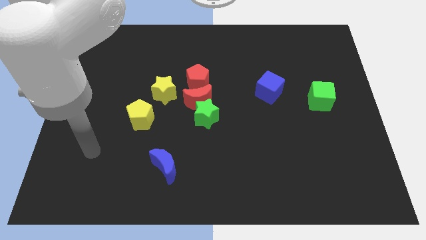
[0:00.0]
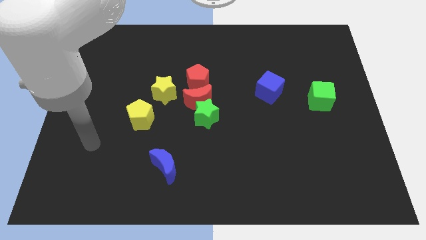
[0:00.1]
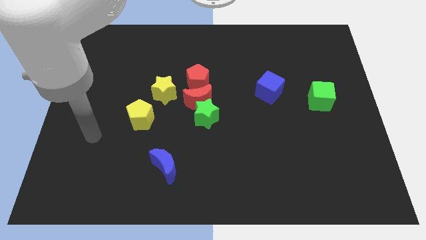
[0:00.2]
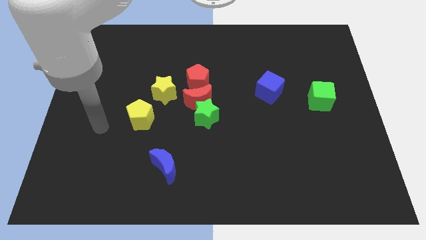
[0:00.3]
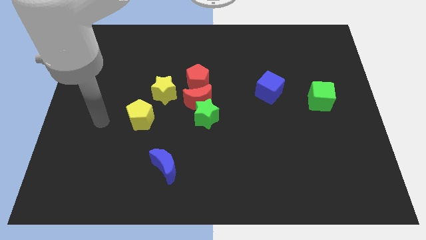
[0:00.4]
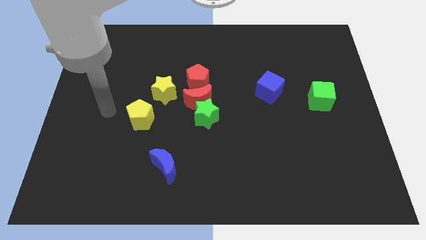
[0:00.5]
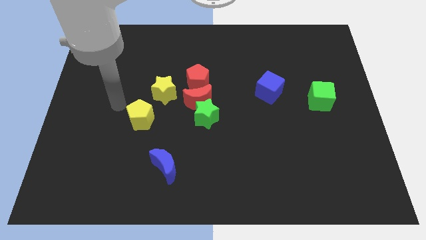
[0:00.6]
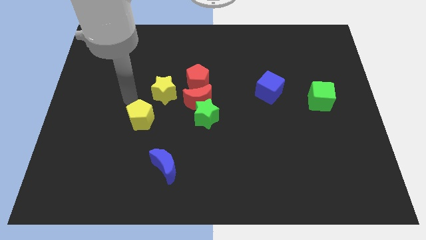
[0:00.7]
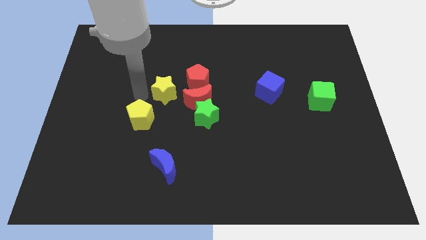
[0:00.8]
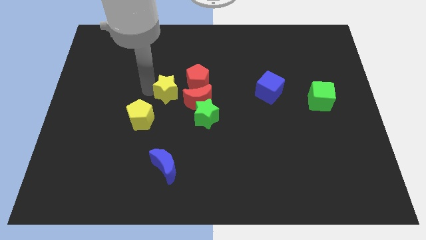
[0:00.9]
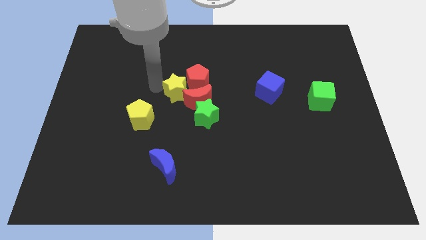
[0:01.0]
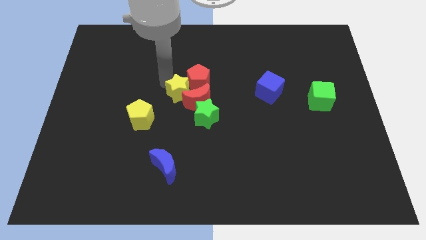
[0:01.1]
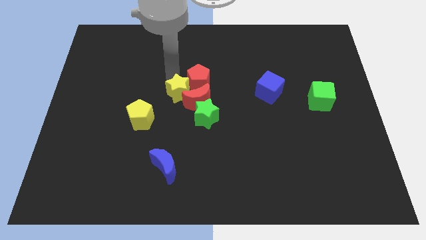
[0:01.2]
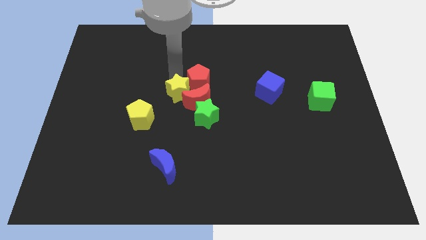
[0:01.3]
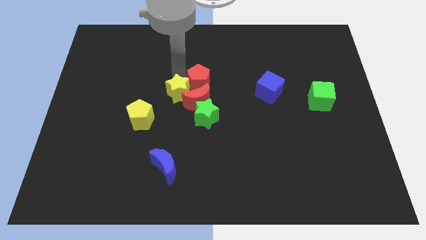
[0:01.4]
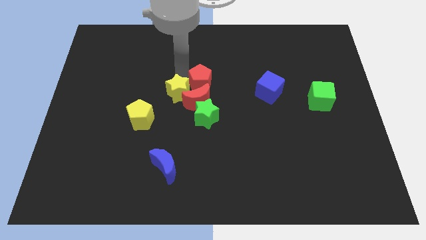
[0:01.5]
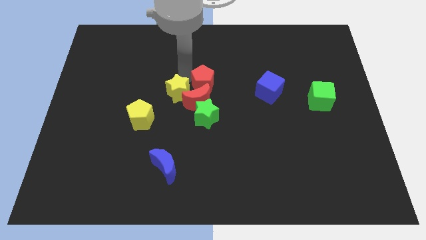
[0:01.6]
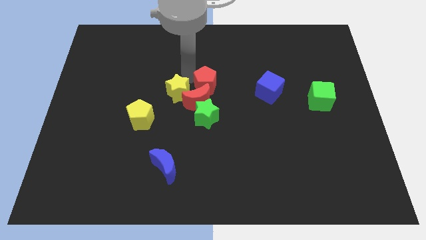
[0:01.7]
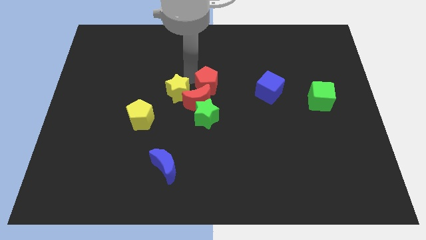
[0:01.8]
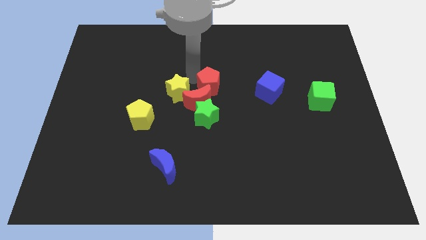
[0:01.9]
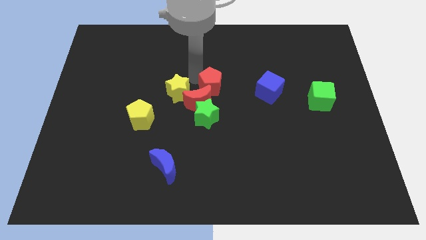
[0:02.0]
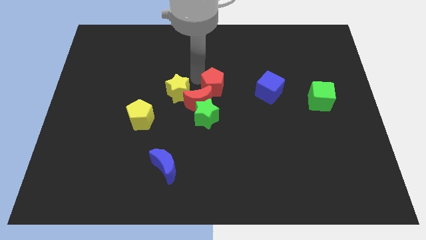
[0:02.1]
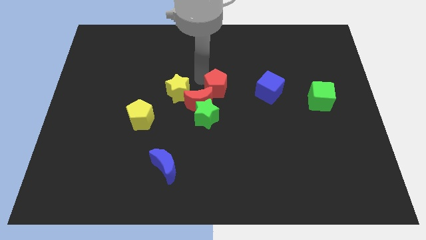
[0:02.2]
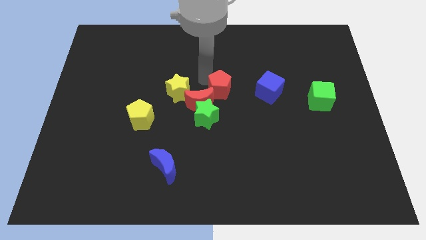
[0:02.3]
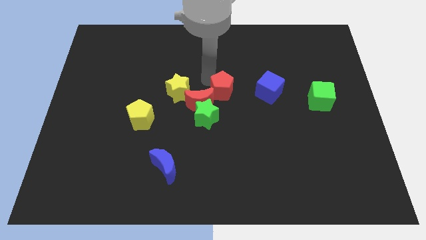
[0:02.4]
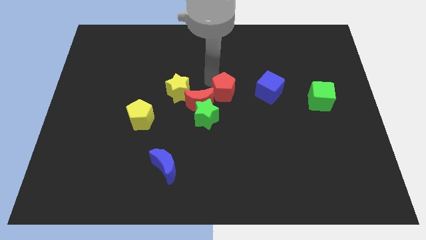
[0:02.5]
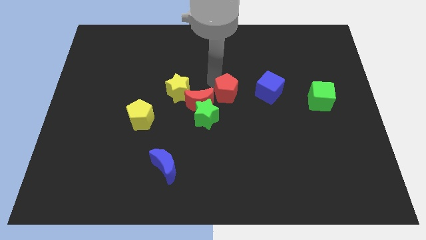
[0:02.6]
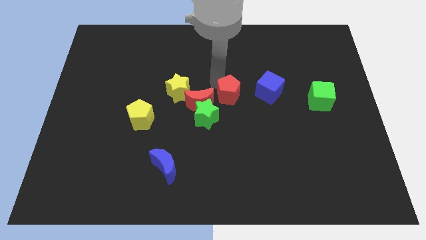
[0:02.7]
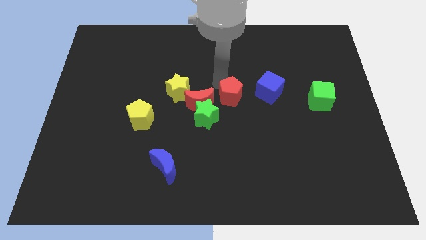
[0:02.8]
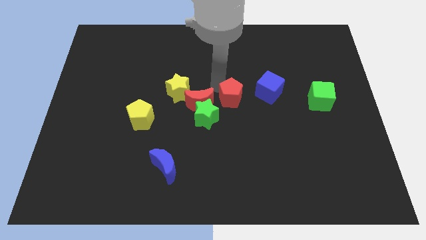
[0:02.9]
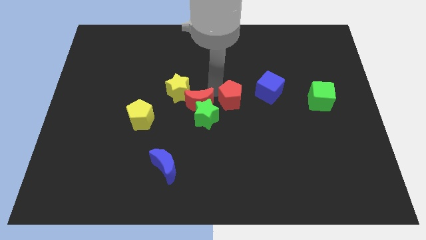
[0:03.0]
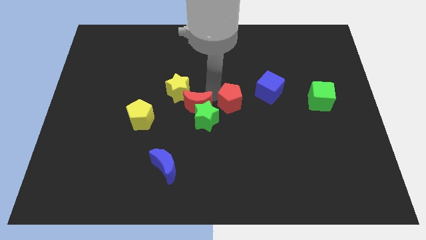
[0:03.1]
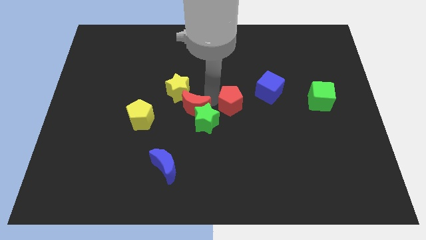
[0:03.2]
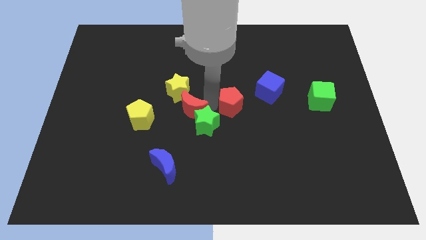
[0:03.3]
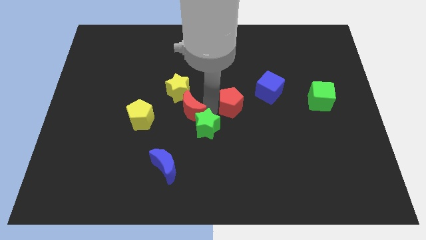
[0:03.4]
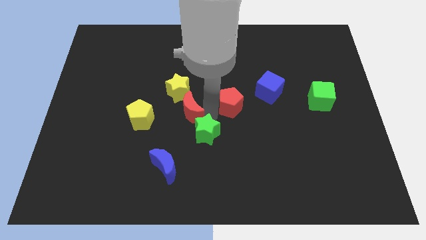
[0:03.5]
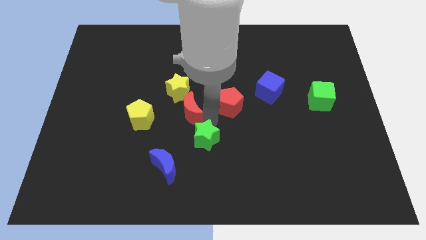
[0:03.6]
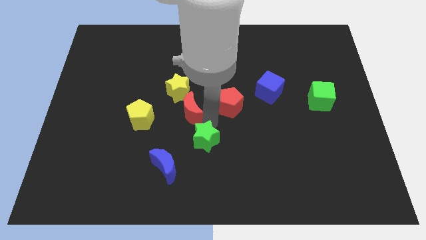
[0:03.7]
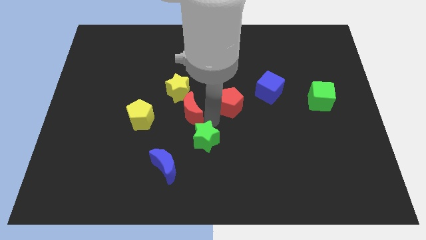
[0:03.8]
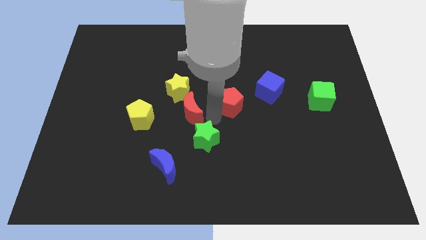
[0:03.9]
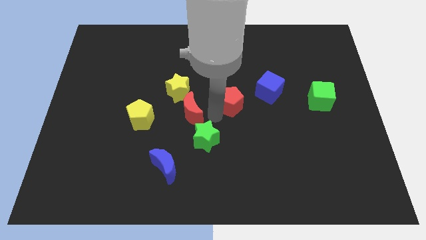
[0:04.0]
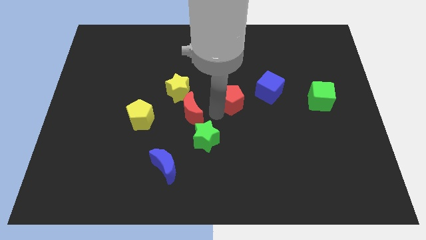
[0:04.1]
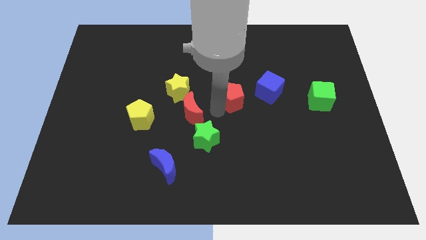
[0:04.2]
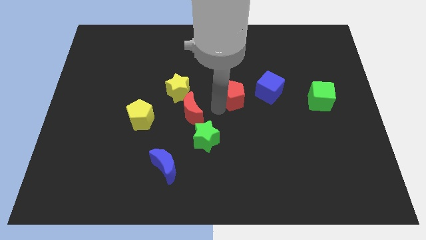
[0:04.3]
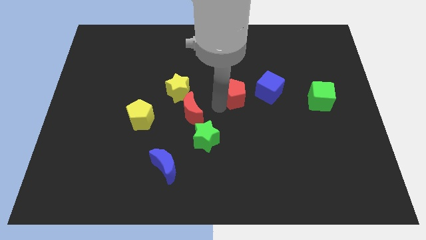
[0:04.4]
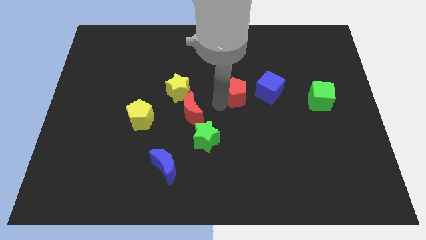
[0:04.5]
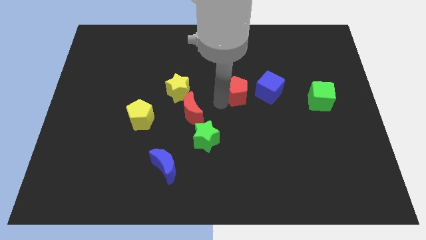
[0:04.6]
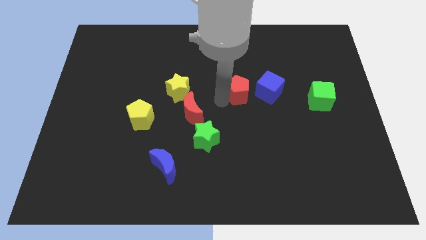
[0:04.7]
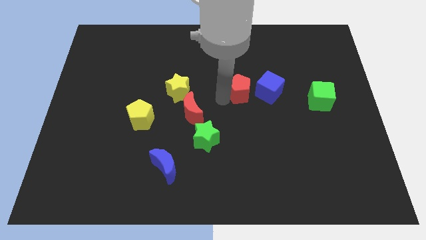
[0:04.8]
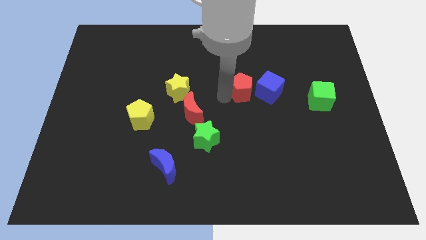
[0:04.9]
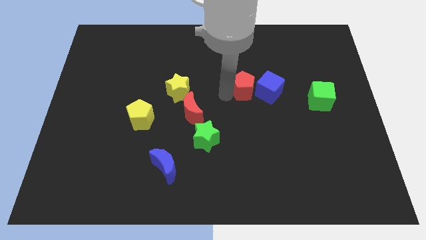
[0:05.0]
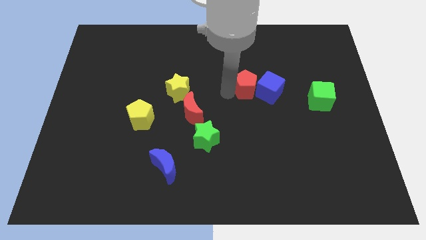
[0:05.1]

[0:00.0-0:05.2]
move the red pentagon to the blue cube

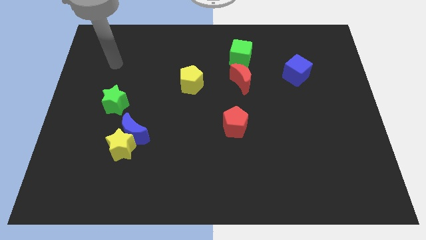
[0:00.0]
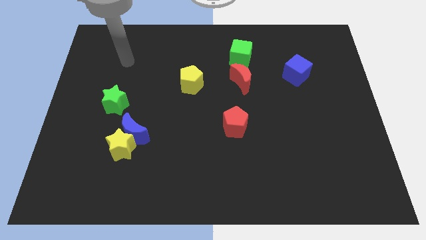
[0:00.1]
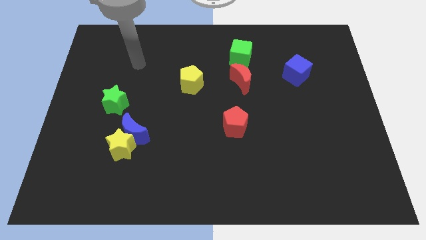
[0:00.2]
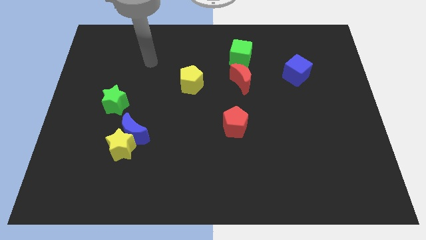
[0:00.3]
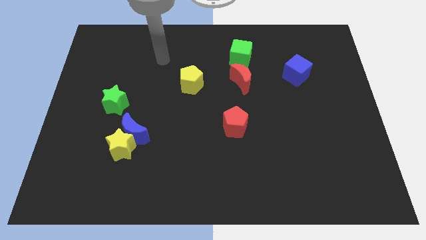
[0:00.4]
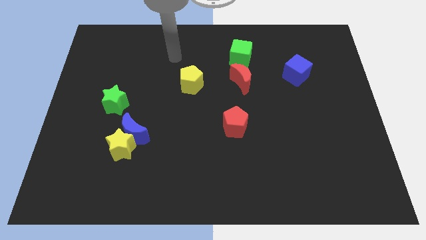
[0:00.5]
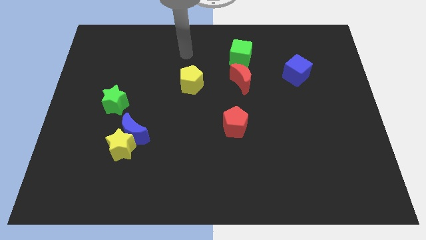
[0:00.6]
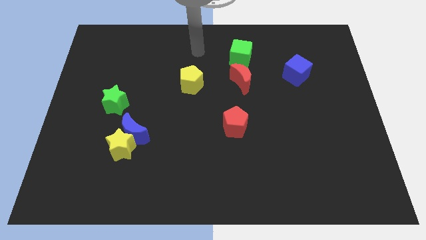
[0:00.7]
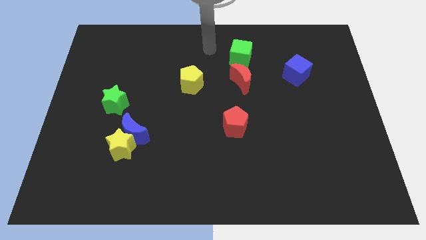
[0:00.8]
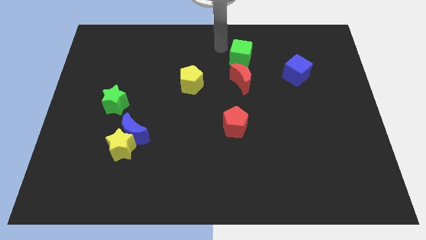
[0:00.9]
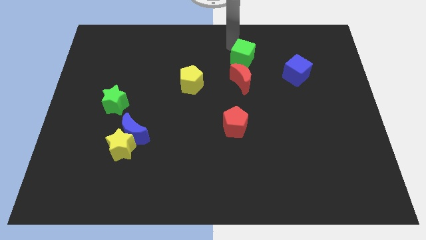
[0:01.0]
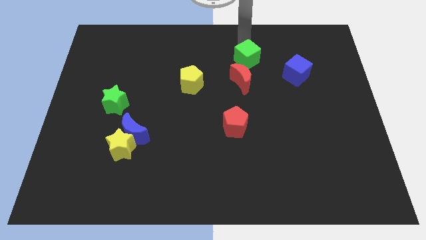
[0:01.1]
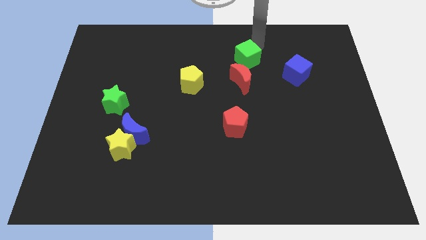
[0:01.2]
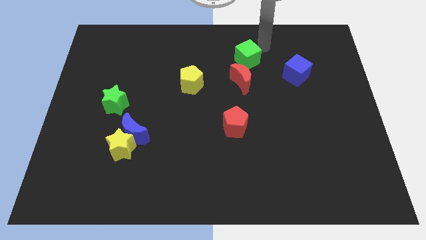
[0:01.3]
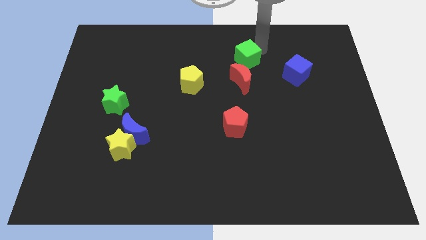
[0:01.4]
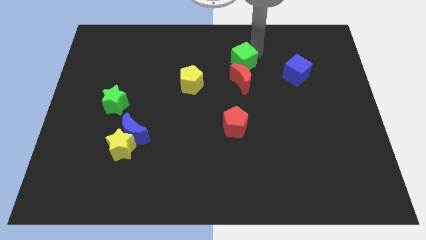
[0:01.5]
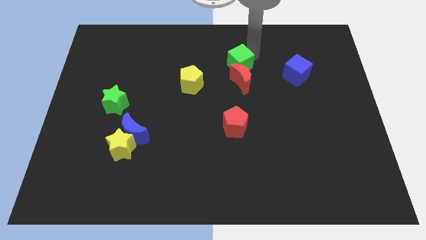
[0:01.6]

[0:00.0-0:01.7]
move the green cube towards the red moon

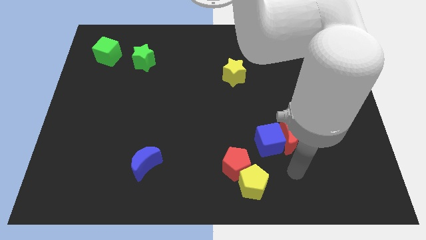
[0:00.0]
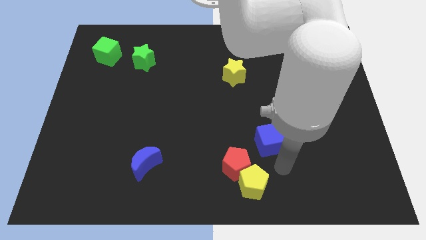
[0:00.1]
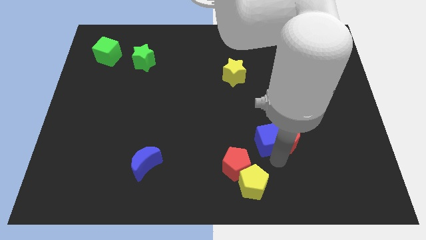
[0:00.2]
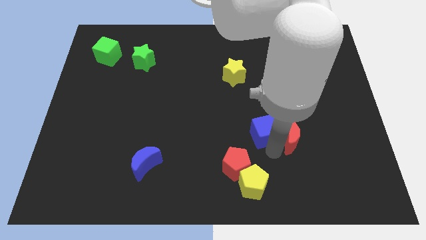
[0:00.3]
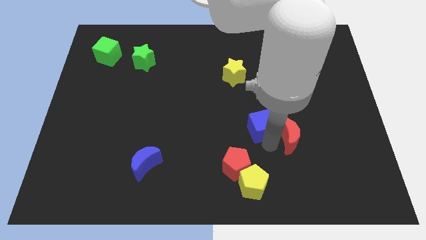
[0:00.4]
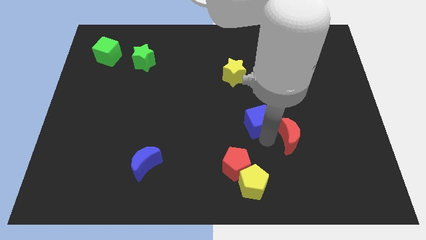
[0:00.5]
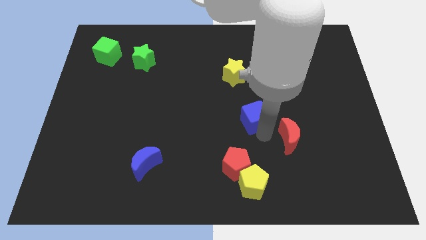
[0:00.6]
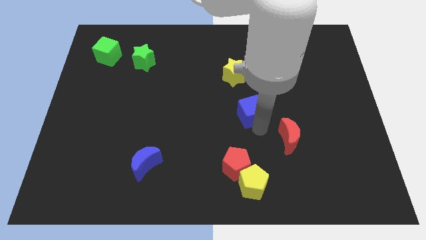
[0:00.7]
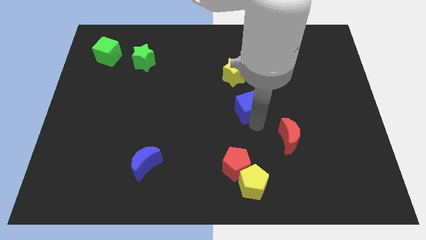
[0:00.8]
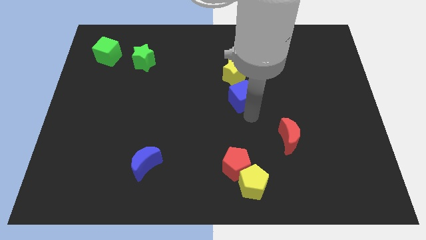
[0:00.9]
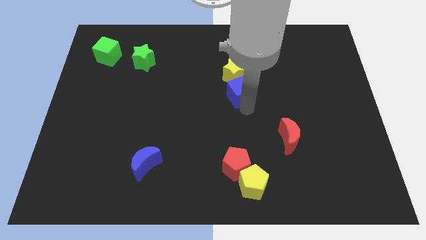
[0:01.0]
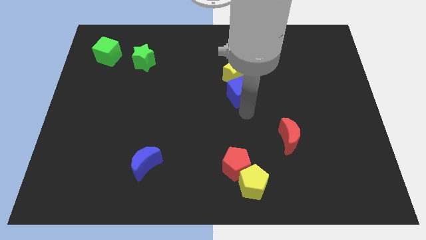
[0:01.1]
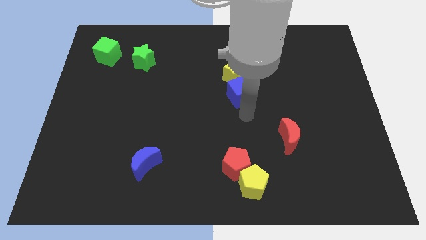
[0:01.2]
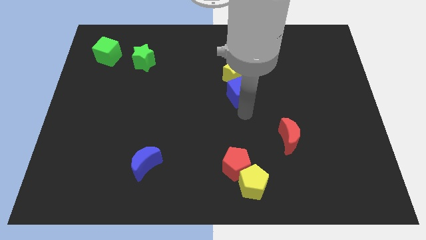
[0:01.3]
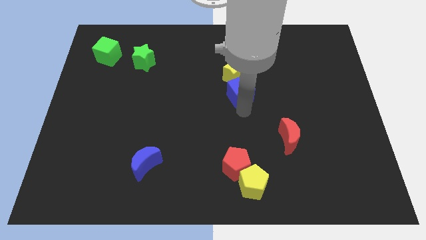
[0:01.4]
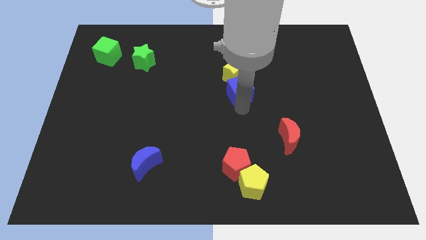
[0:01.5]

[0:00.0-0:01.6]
push the blue cube towards the yellow star
